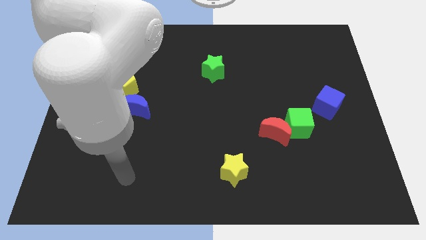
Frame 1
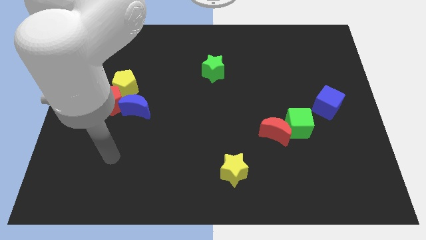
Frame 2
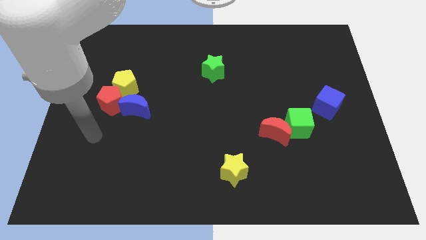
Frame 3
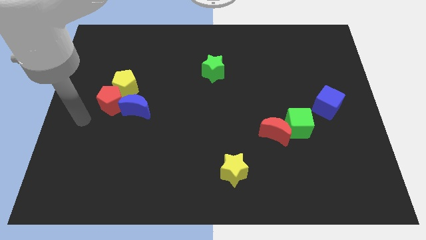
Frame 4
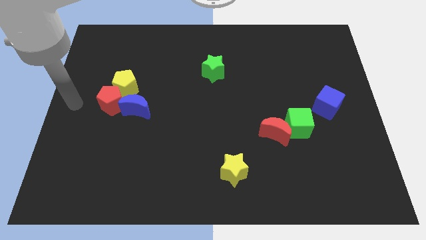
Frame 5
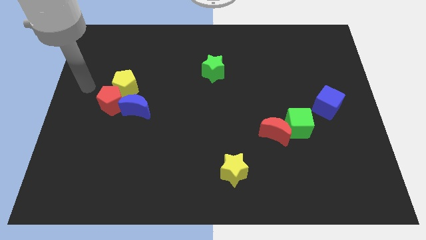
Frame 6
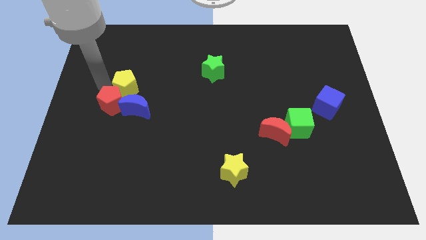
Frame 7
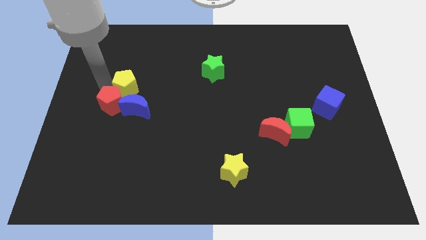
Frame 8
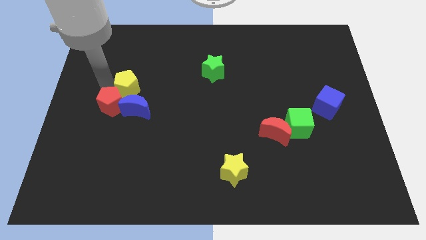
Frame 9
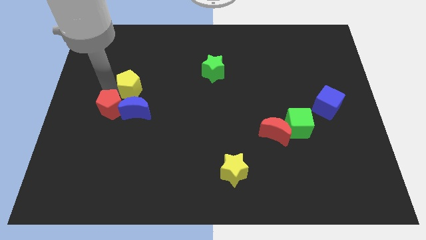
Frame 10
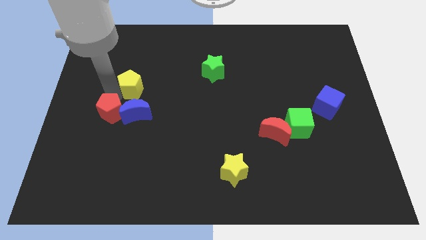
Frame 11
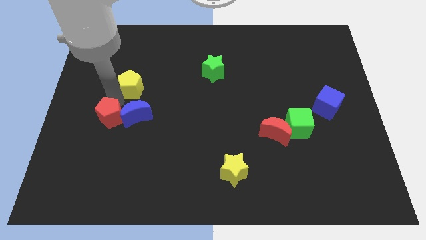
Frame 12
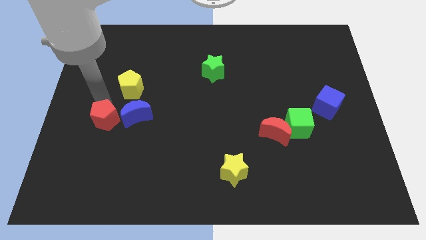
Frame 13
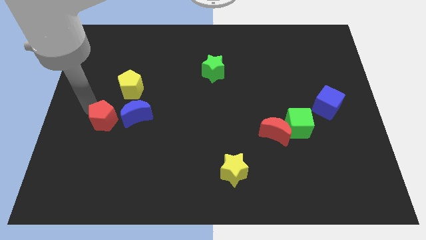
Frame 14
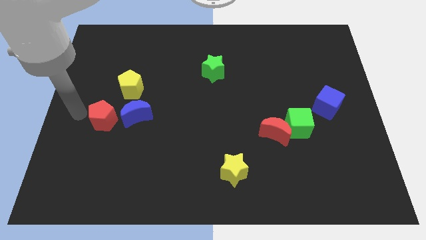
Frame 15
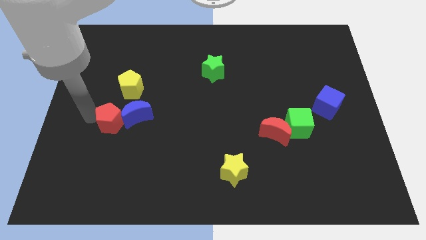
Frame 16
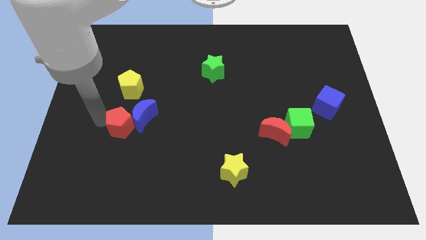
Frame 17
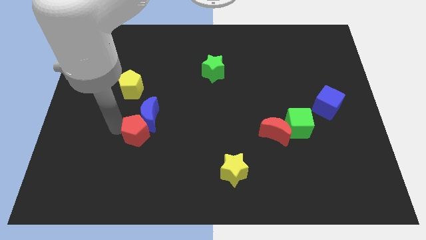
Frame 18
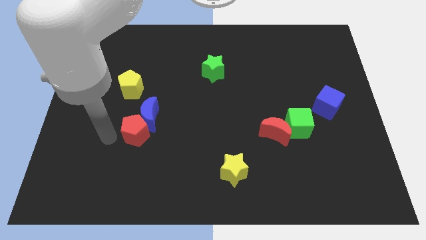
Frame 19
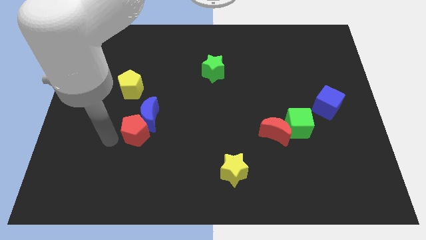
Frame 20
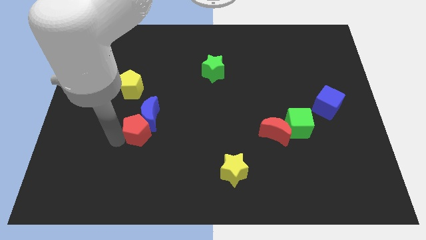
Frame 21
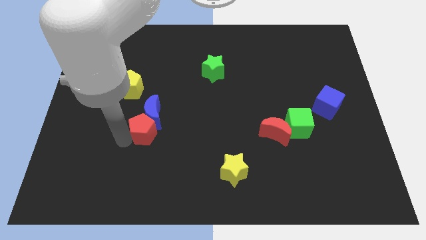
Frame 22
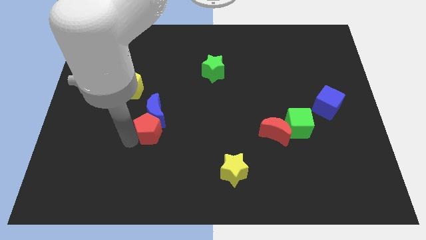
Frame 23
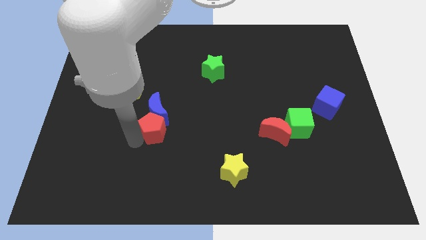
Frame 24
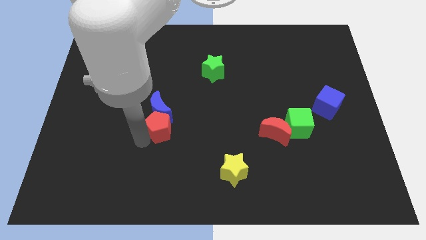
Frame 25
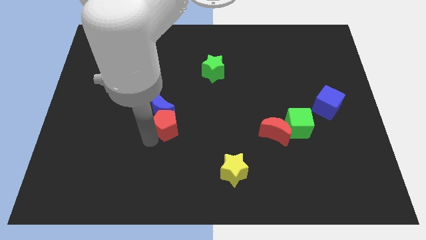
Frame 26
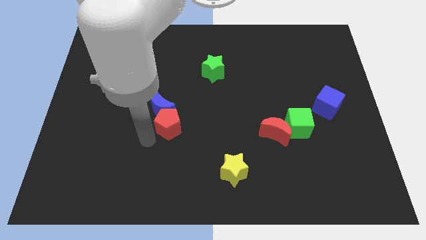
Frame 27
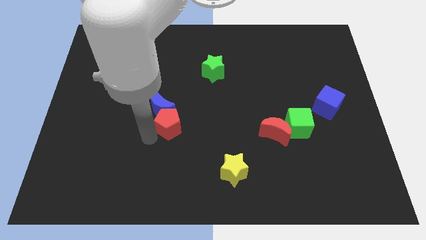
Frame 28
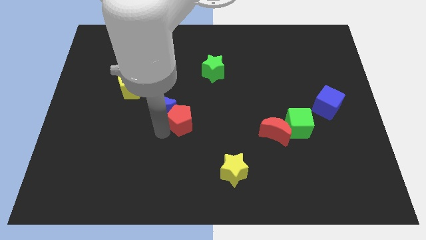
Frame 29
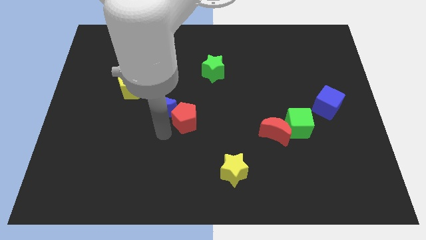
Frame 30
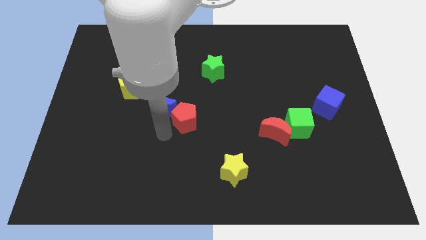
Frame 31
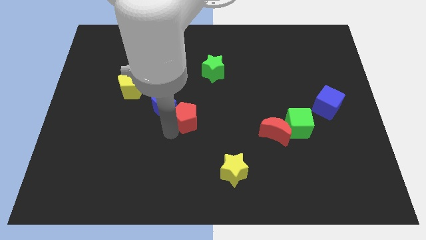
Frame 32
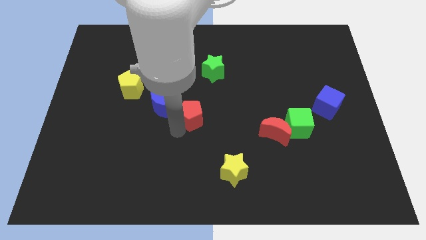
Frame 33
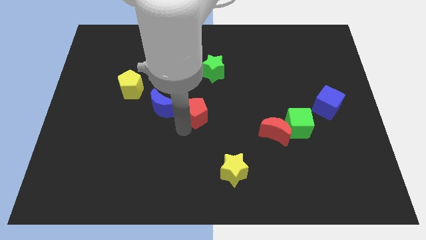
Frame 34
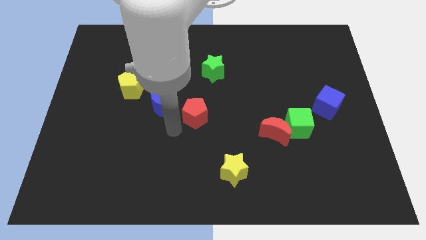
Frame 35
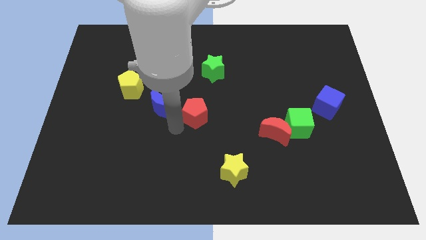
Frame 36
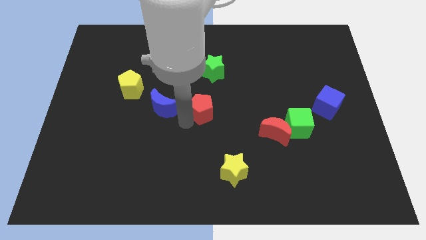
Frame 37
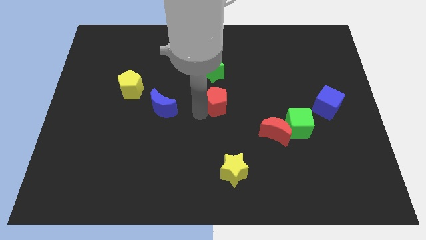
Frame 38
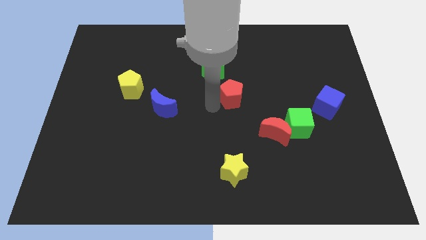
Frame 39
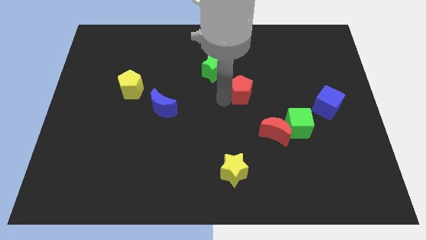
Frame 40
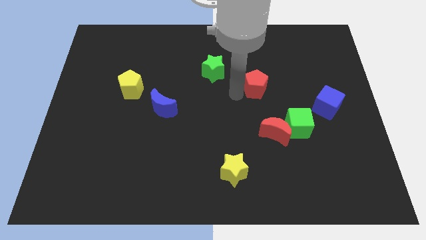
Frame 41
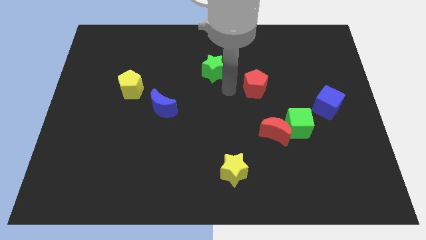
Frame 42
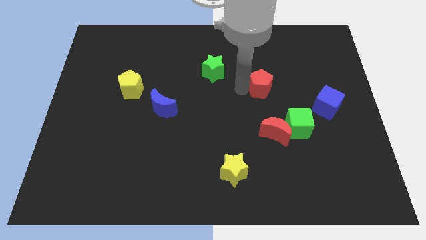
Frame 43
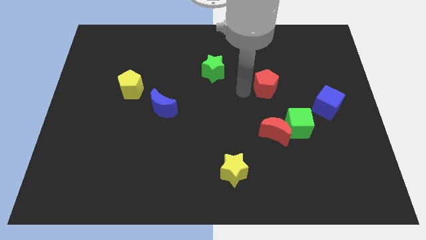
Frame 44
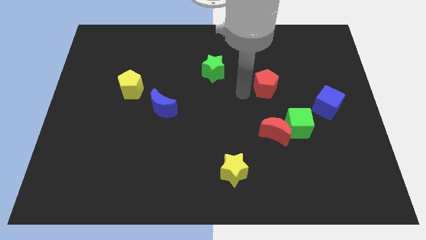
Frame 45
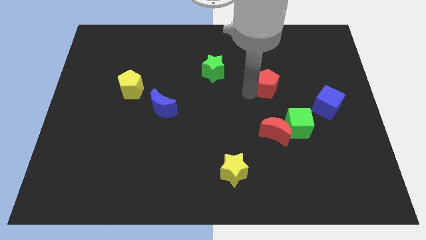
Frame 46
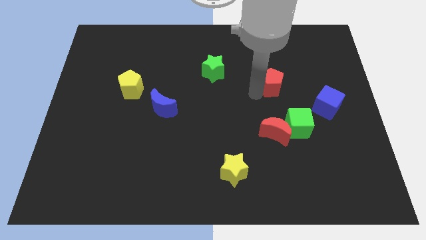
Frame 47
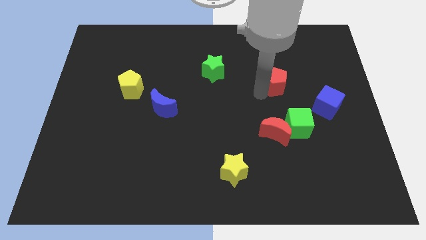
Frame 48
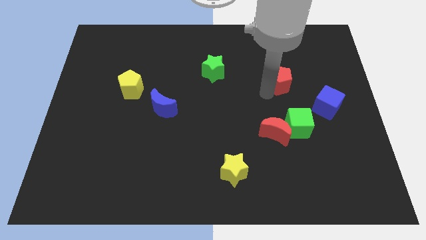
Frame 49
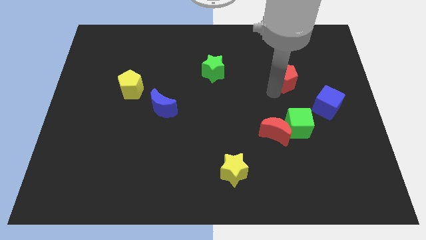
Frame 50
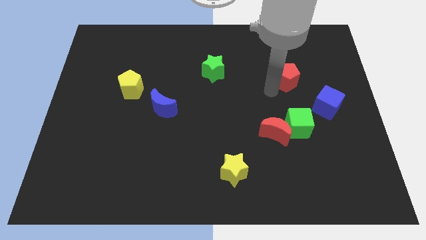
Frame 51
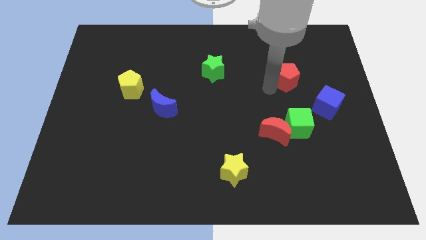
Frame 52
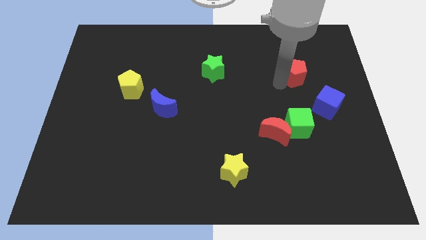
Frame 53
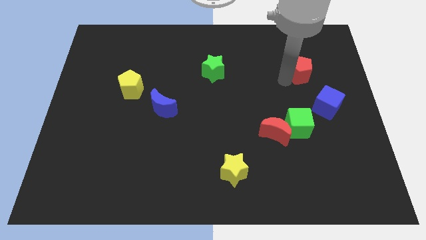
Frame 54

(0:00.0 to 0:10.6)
put the red pentagon to the top of the blue cube

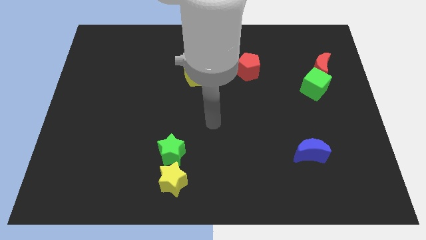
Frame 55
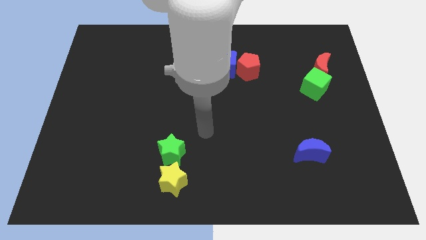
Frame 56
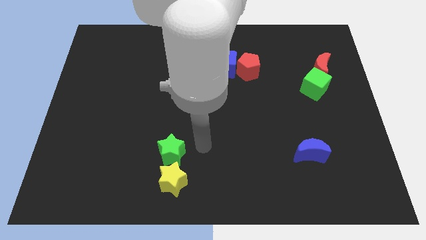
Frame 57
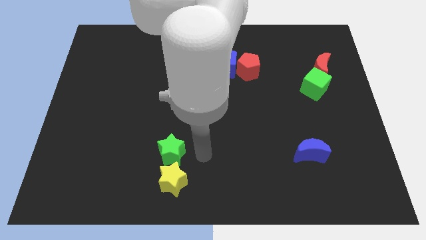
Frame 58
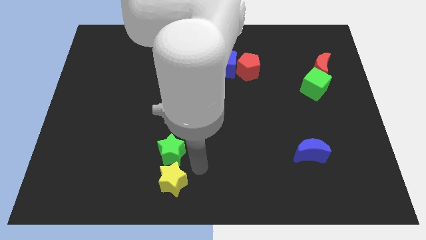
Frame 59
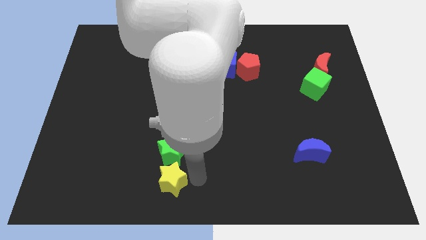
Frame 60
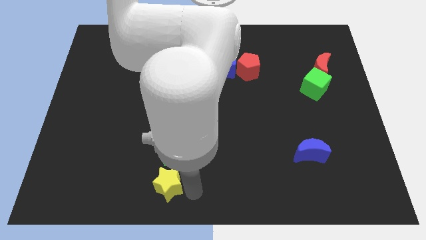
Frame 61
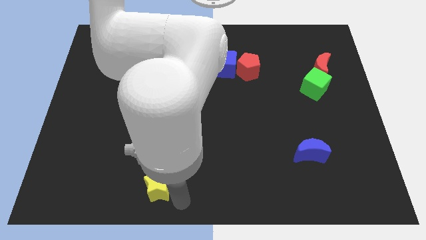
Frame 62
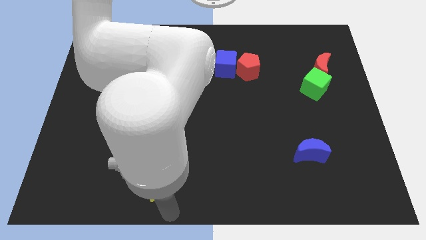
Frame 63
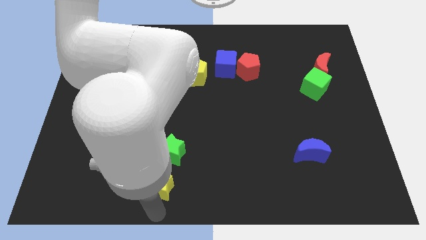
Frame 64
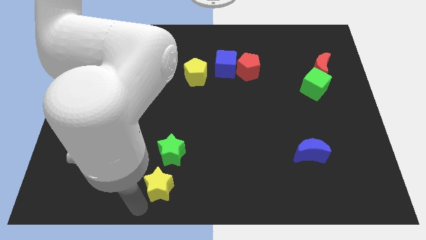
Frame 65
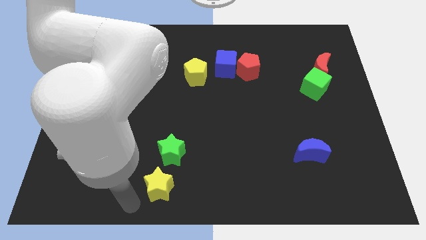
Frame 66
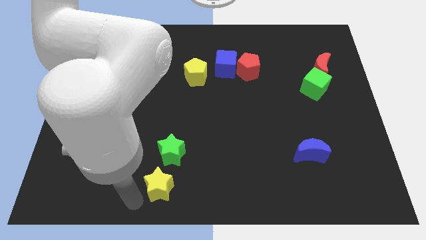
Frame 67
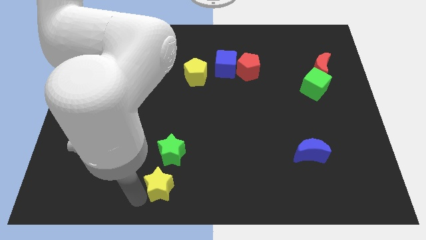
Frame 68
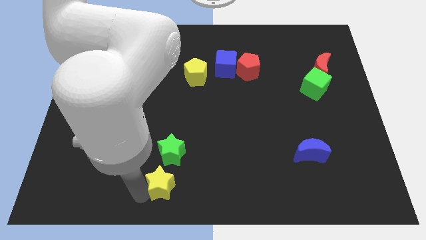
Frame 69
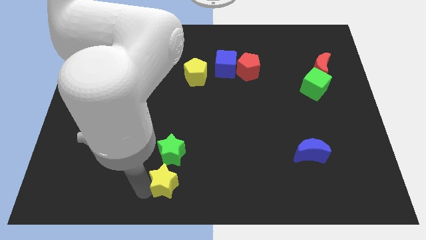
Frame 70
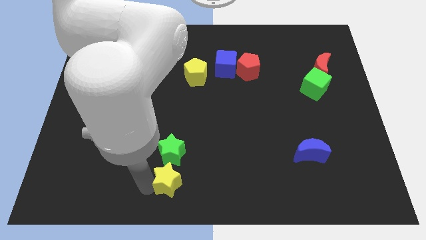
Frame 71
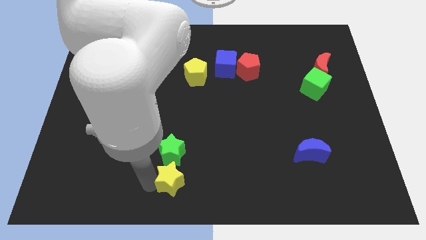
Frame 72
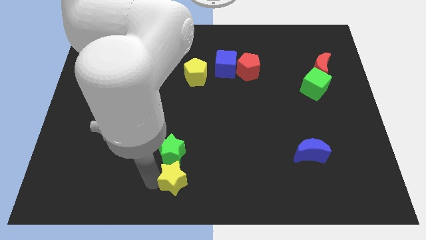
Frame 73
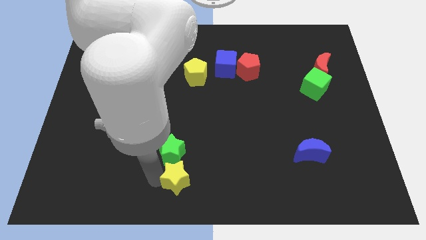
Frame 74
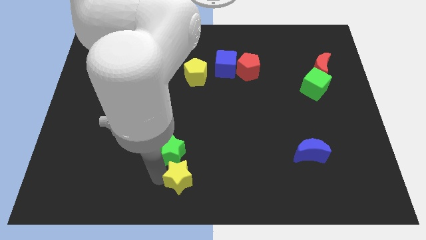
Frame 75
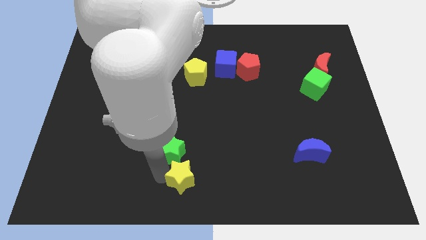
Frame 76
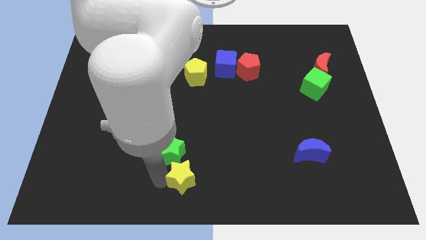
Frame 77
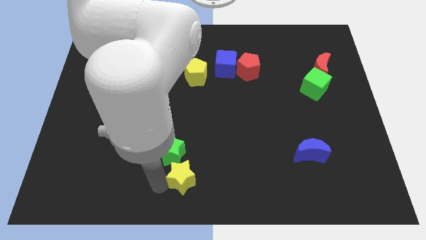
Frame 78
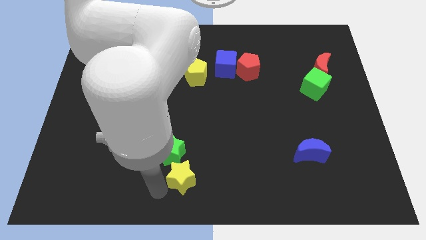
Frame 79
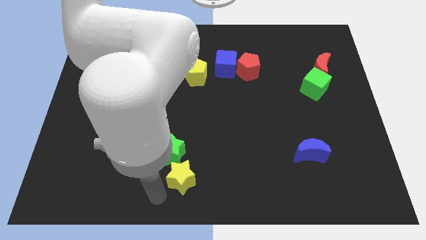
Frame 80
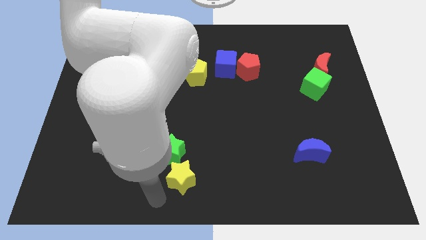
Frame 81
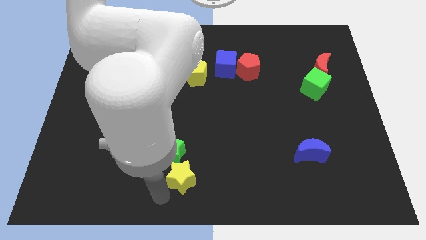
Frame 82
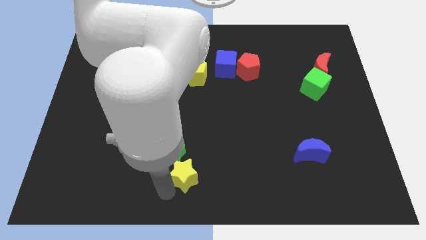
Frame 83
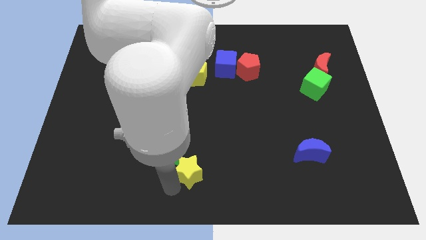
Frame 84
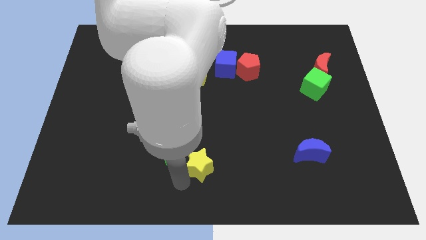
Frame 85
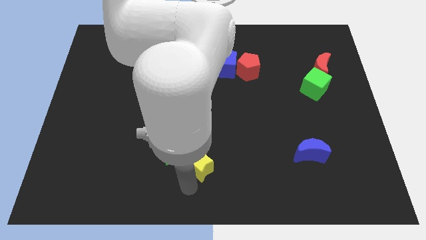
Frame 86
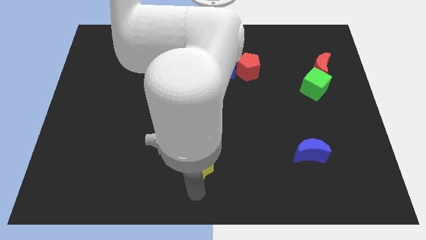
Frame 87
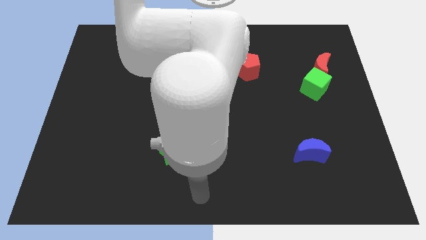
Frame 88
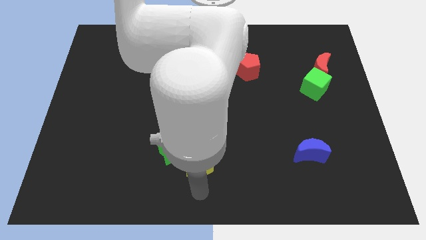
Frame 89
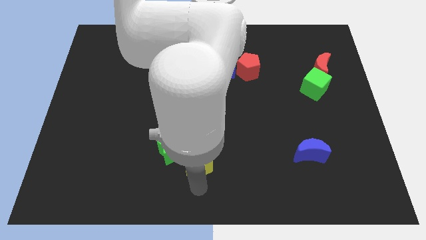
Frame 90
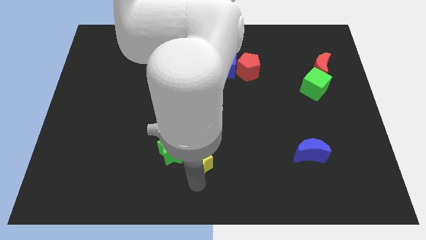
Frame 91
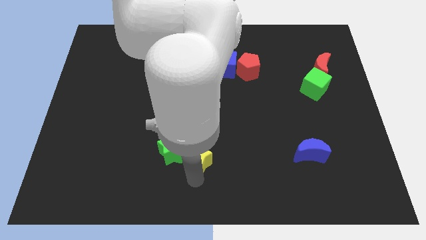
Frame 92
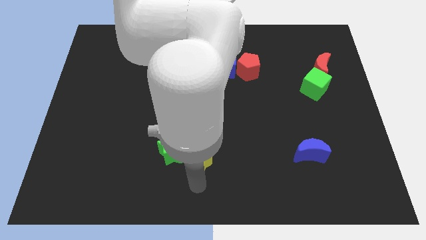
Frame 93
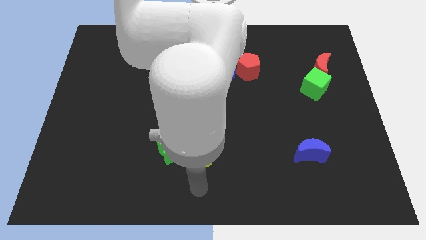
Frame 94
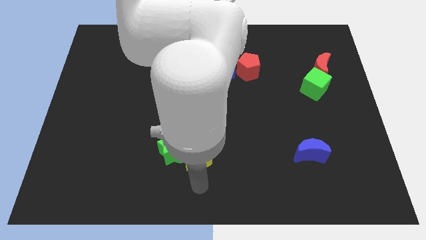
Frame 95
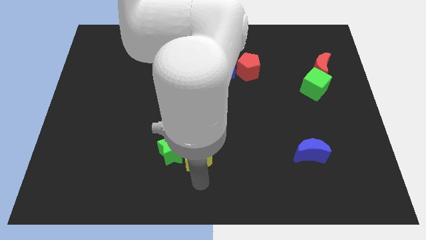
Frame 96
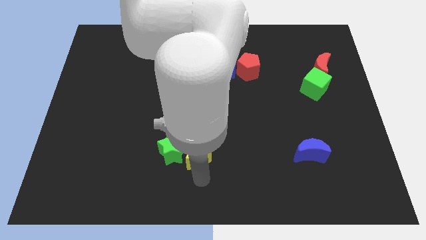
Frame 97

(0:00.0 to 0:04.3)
put the yellow star to the top right of the green star
